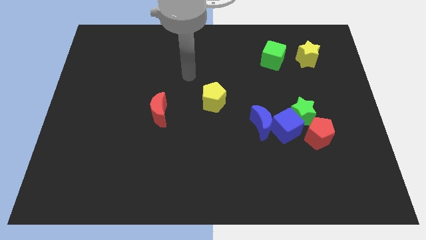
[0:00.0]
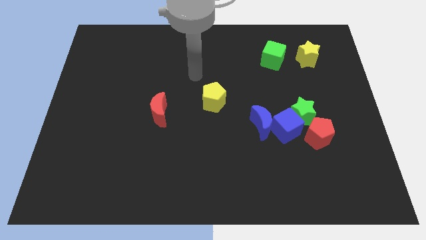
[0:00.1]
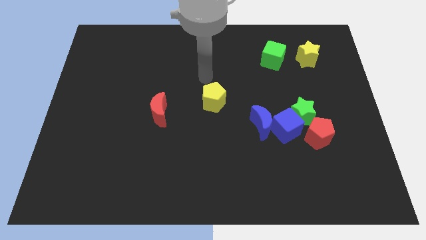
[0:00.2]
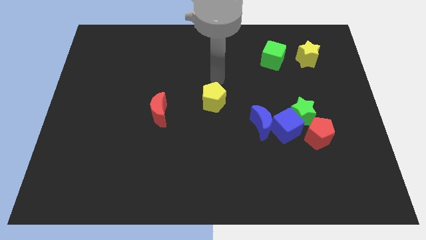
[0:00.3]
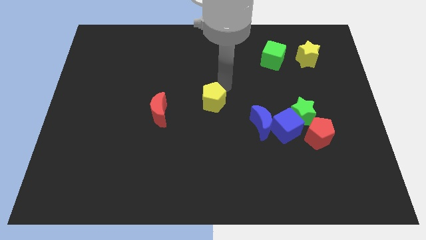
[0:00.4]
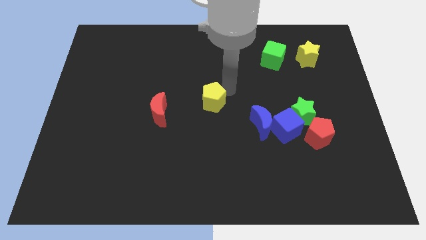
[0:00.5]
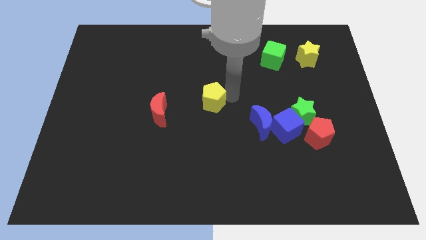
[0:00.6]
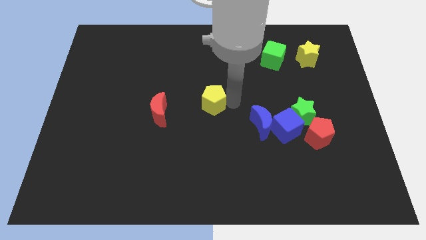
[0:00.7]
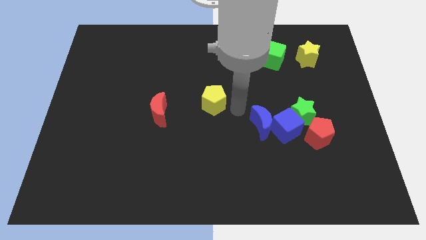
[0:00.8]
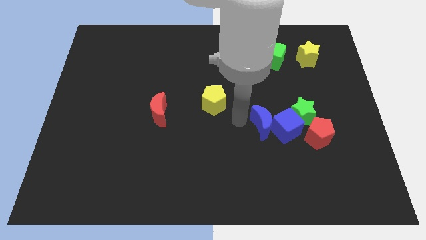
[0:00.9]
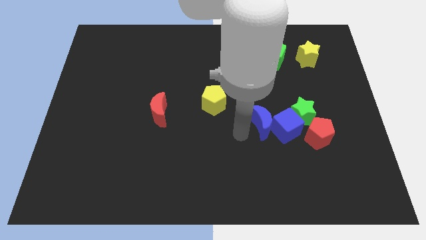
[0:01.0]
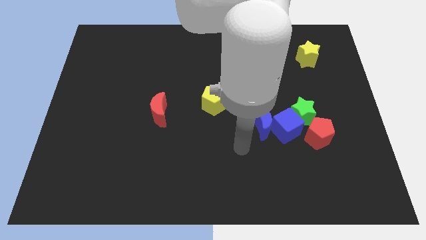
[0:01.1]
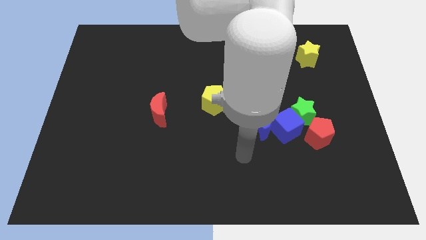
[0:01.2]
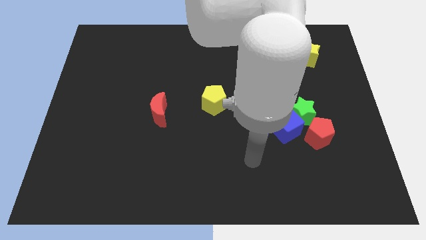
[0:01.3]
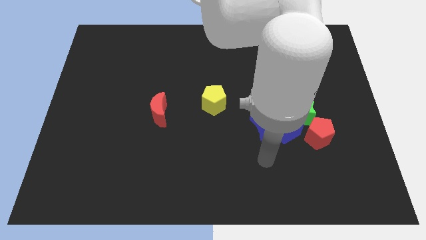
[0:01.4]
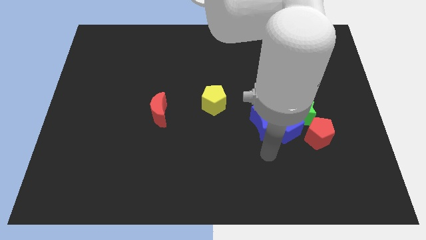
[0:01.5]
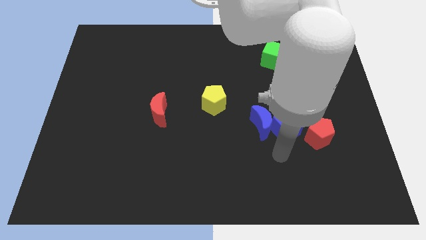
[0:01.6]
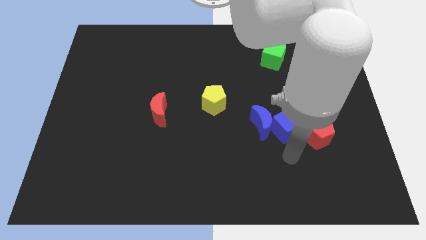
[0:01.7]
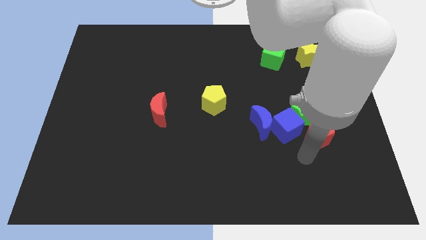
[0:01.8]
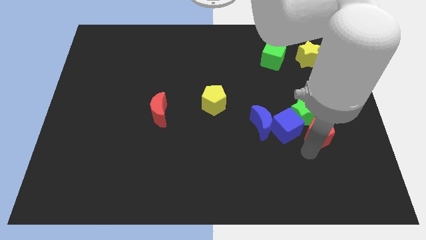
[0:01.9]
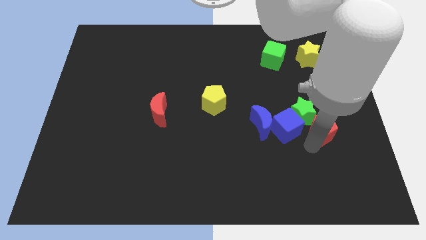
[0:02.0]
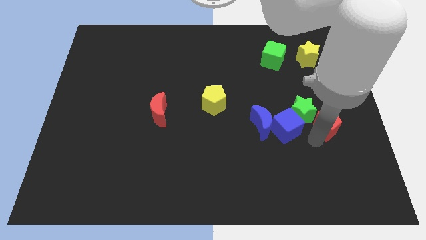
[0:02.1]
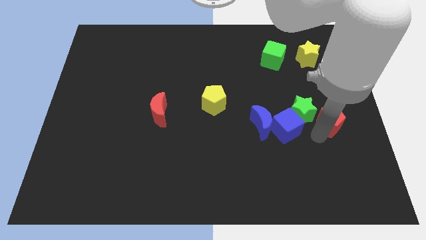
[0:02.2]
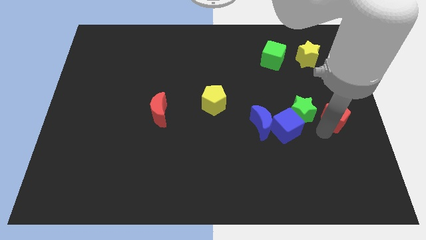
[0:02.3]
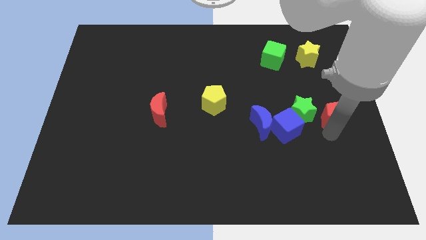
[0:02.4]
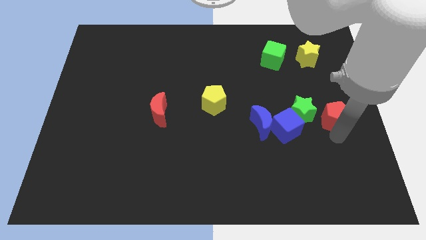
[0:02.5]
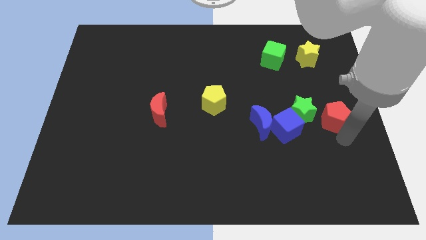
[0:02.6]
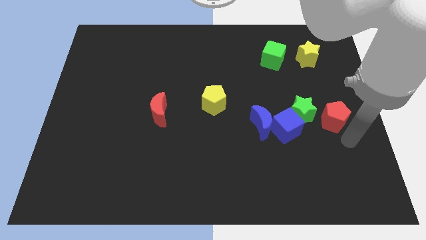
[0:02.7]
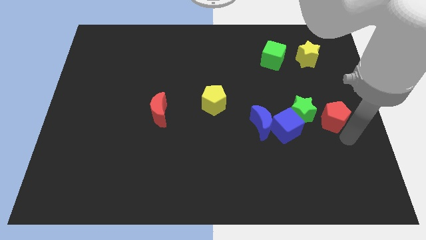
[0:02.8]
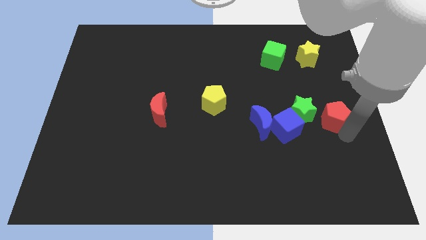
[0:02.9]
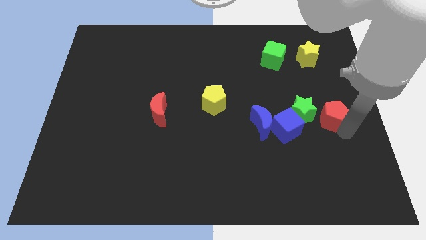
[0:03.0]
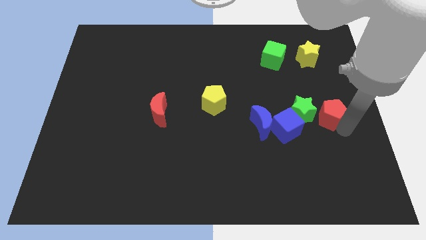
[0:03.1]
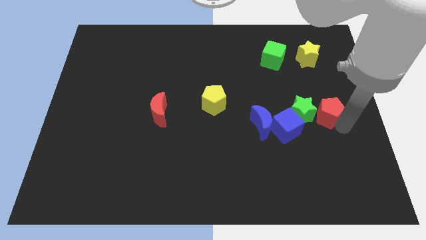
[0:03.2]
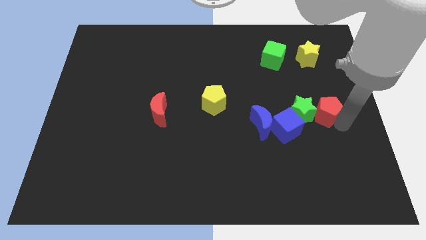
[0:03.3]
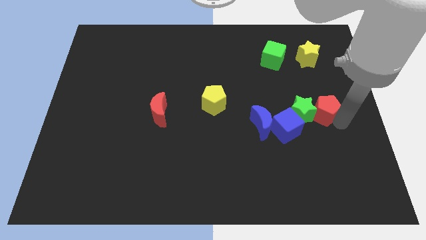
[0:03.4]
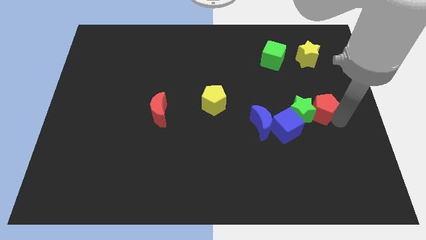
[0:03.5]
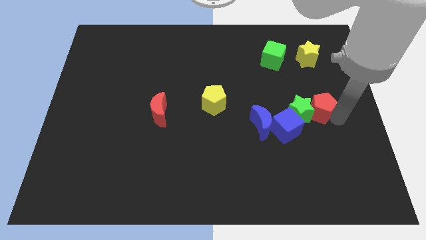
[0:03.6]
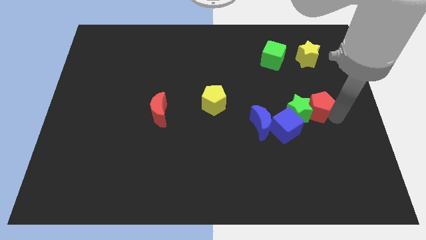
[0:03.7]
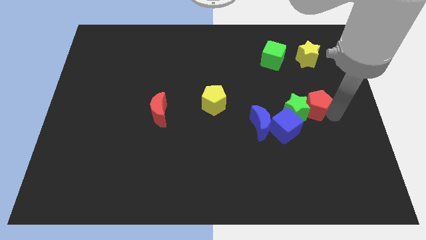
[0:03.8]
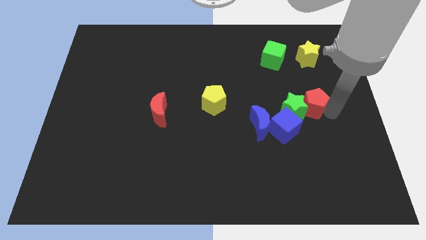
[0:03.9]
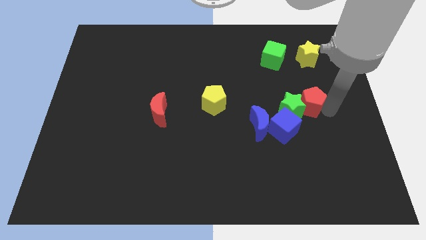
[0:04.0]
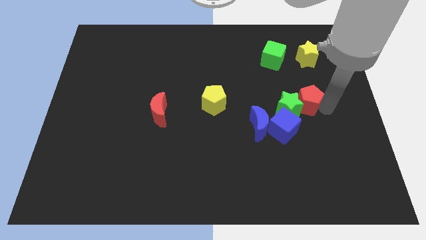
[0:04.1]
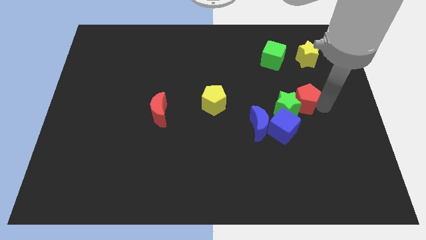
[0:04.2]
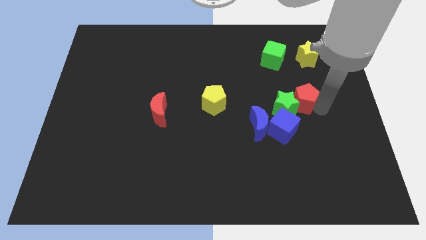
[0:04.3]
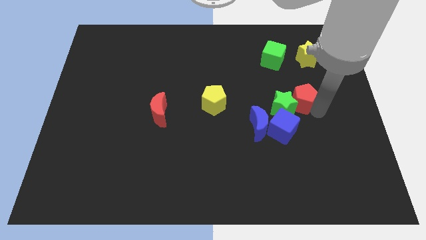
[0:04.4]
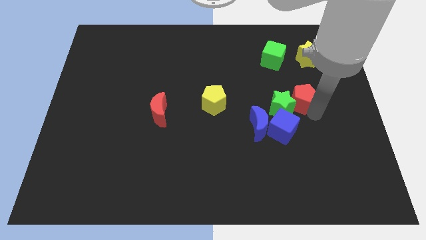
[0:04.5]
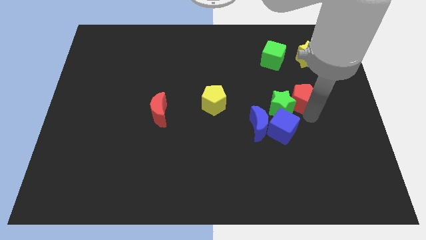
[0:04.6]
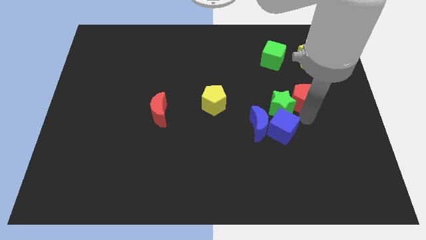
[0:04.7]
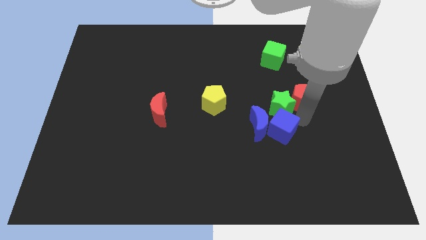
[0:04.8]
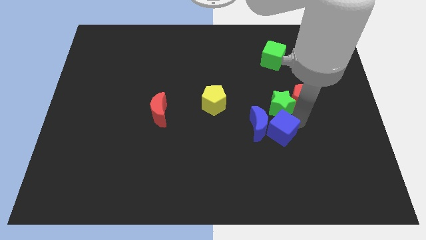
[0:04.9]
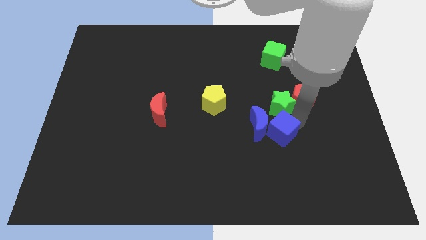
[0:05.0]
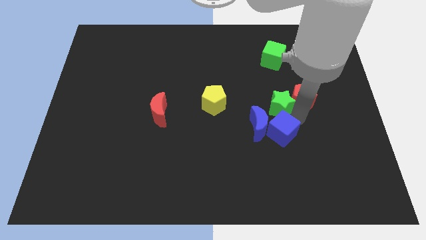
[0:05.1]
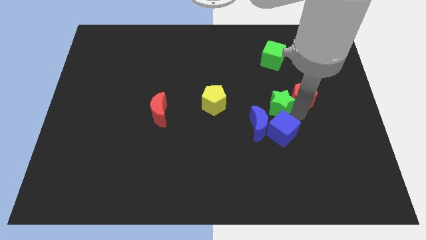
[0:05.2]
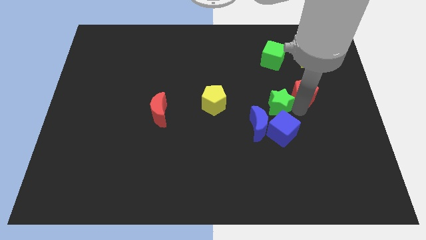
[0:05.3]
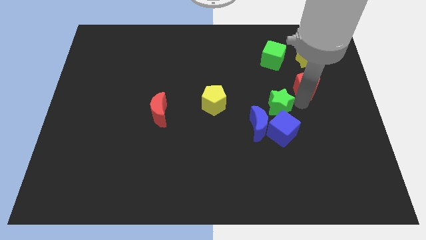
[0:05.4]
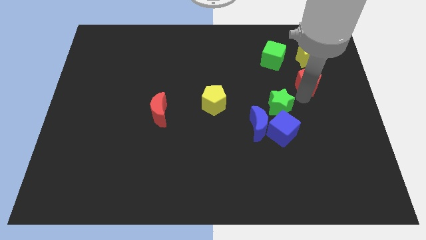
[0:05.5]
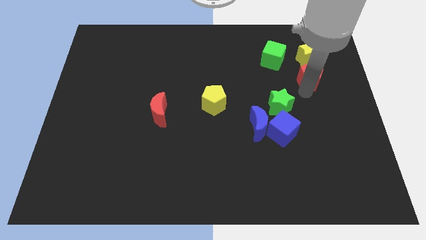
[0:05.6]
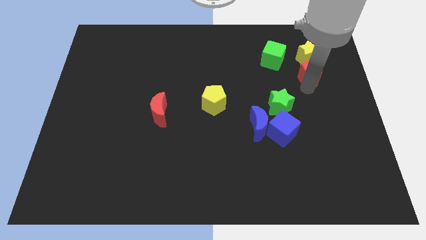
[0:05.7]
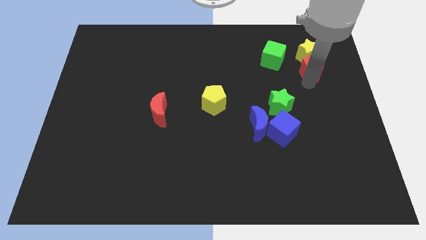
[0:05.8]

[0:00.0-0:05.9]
put the red pentagon close to the yellow star

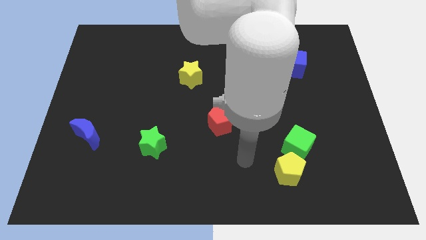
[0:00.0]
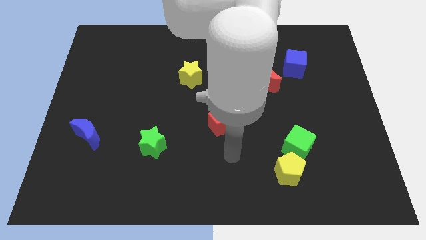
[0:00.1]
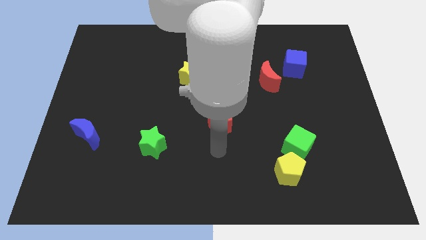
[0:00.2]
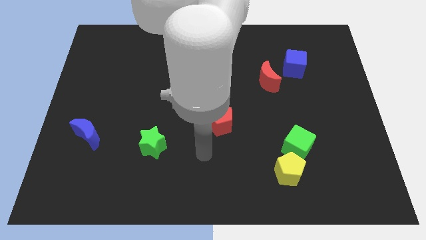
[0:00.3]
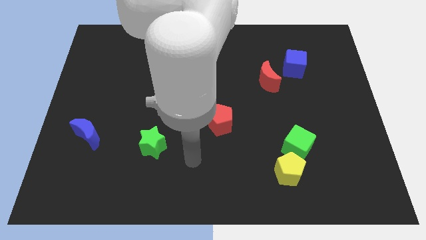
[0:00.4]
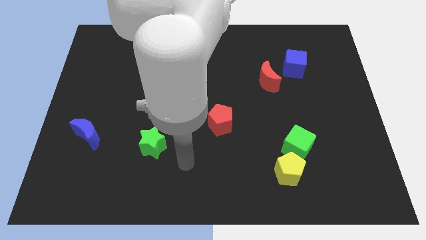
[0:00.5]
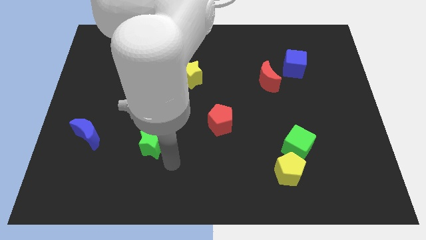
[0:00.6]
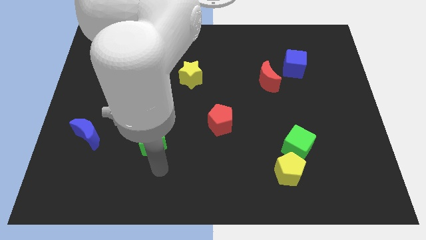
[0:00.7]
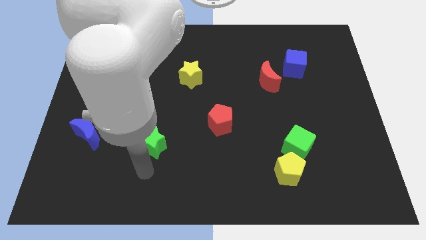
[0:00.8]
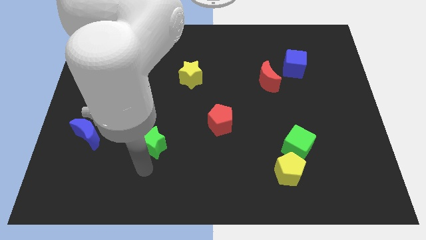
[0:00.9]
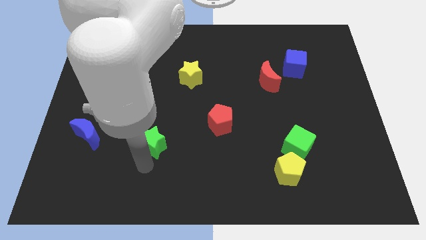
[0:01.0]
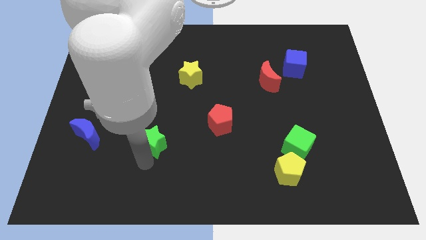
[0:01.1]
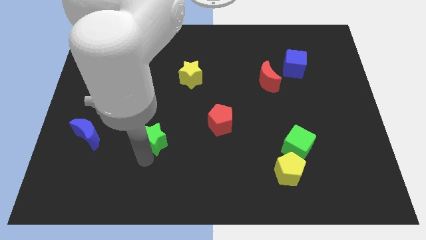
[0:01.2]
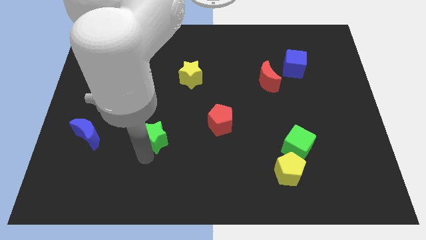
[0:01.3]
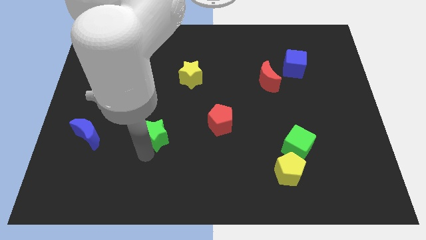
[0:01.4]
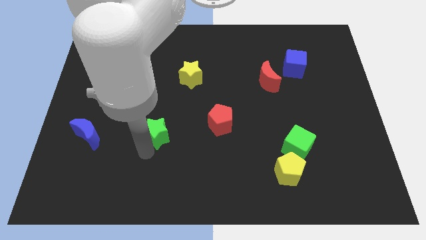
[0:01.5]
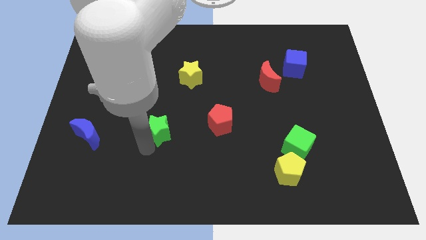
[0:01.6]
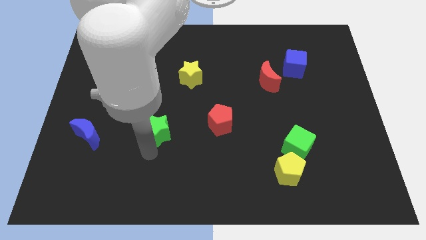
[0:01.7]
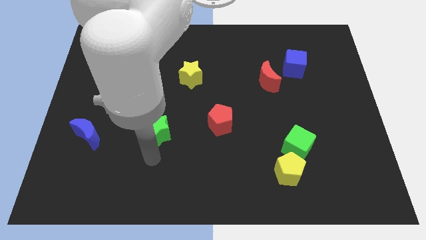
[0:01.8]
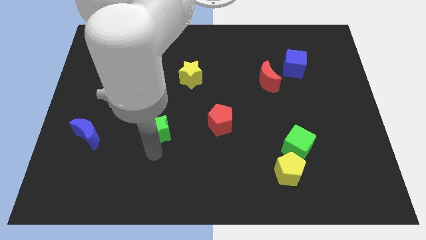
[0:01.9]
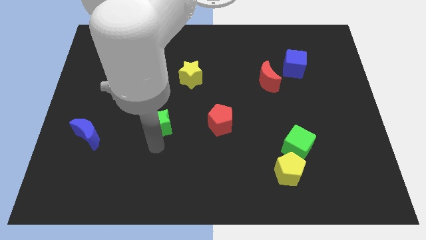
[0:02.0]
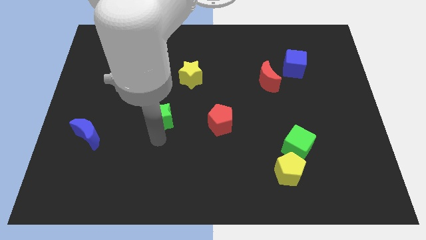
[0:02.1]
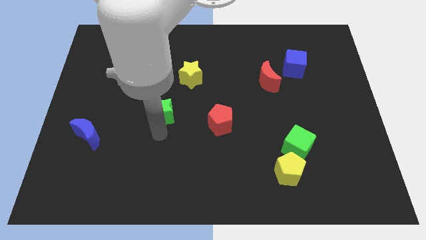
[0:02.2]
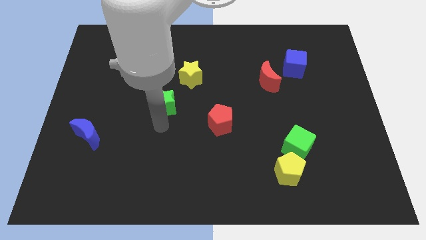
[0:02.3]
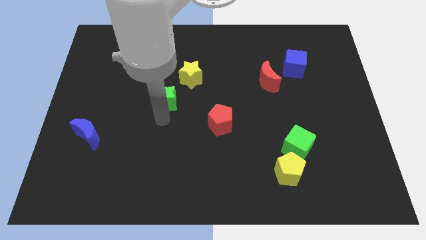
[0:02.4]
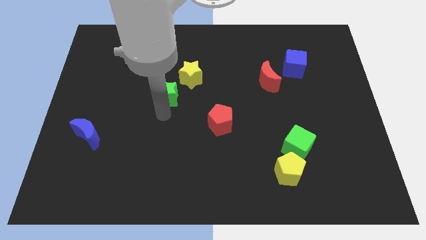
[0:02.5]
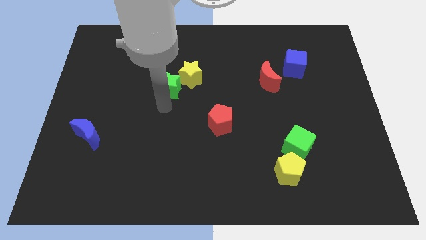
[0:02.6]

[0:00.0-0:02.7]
slide the green star to the yellow star
